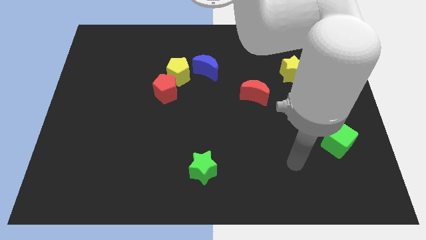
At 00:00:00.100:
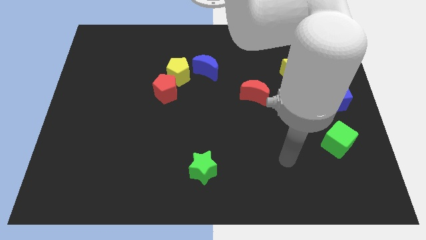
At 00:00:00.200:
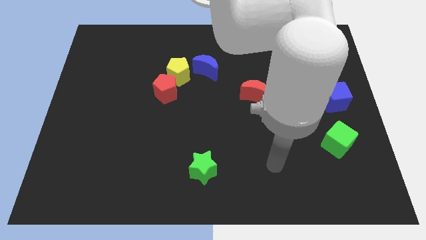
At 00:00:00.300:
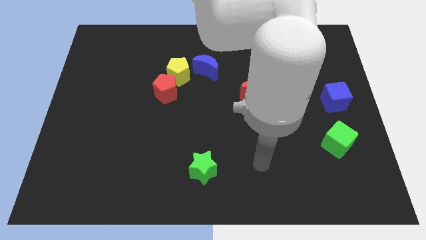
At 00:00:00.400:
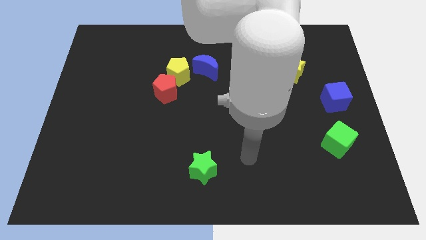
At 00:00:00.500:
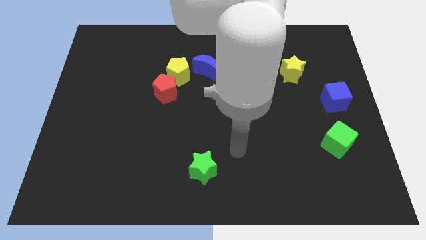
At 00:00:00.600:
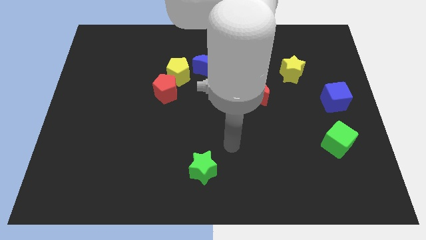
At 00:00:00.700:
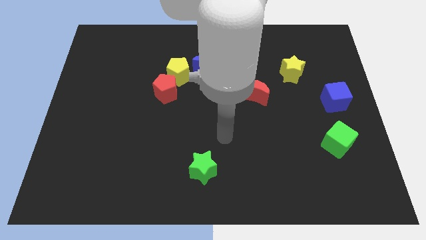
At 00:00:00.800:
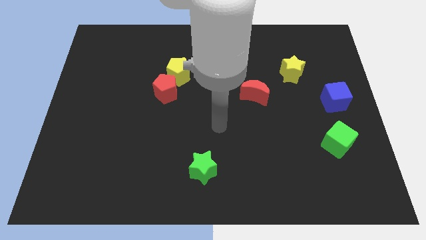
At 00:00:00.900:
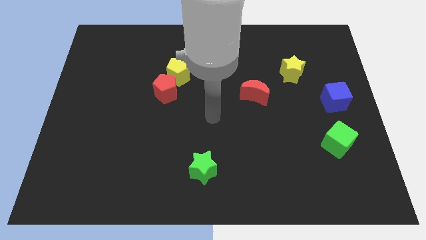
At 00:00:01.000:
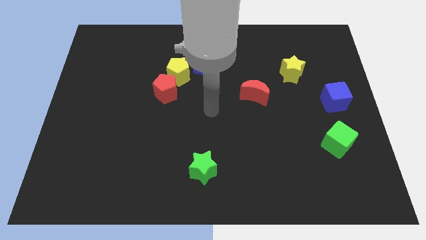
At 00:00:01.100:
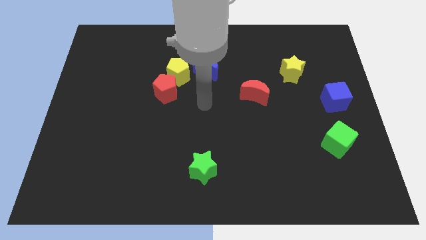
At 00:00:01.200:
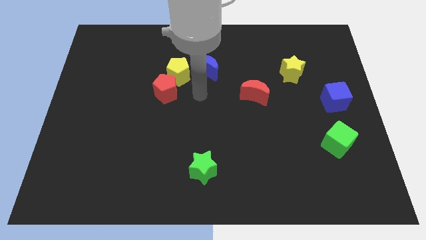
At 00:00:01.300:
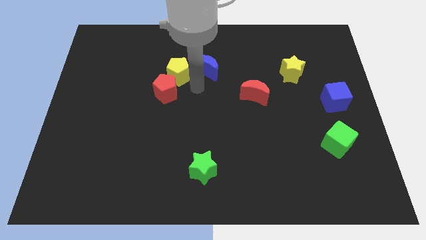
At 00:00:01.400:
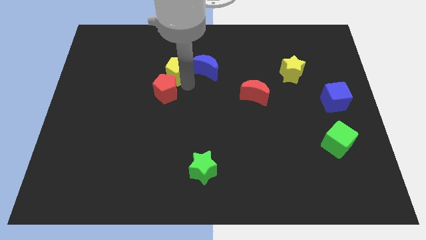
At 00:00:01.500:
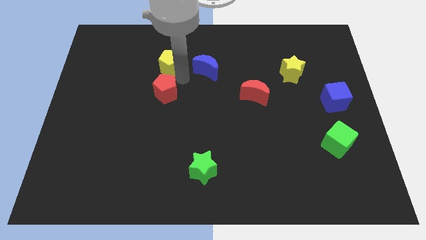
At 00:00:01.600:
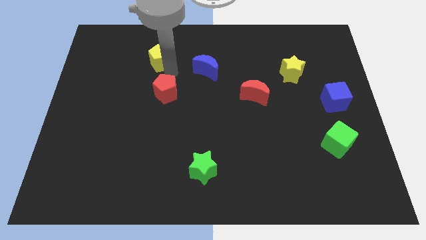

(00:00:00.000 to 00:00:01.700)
separate the red pentagon from the yellow pentagon

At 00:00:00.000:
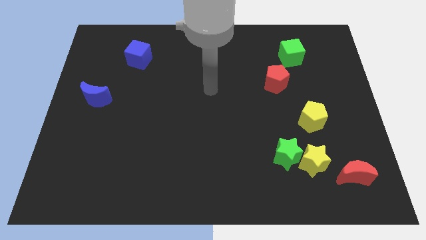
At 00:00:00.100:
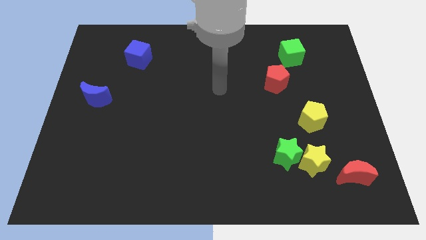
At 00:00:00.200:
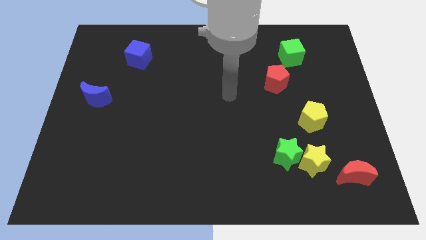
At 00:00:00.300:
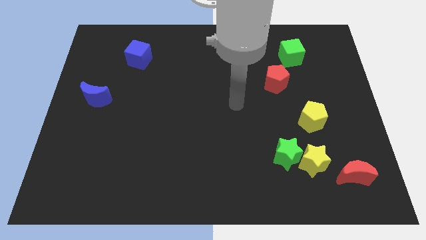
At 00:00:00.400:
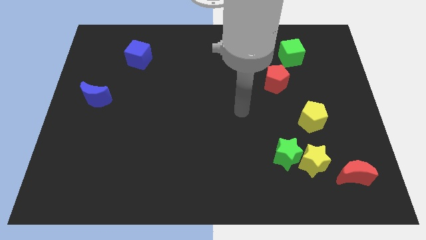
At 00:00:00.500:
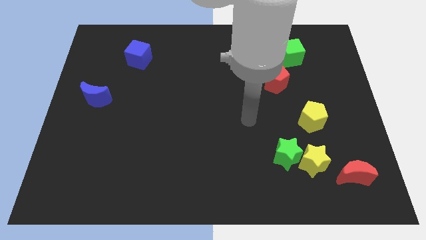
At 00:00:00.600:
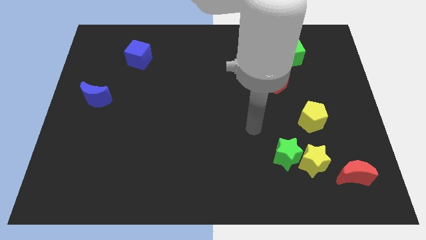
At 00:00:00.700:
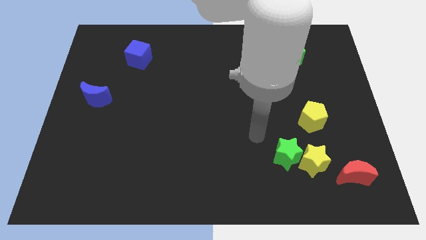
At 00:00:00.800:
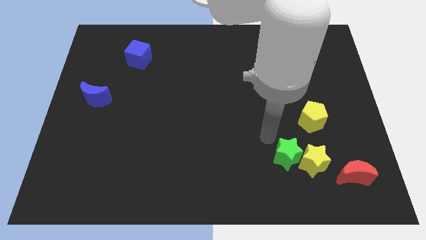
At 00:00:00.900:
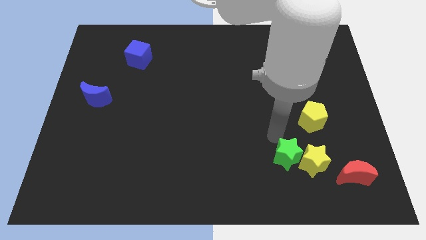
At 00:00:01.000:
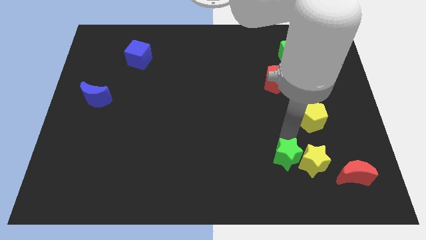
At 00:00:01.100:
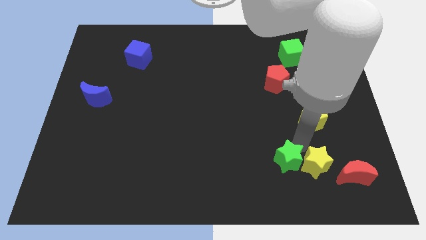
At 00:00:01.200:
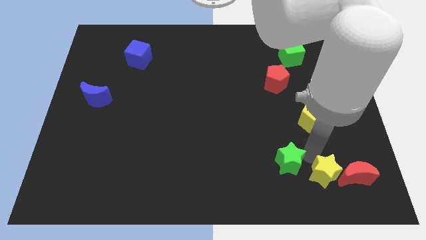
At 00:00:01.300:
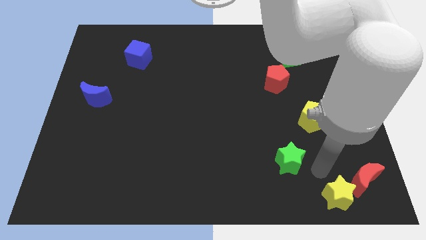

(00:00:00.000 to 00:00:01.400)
separate the green star from the yellow star

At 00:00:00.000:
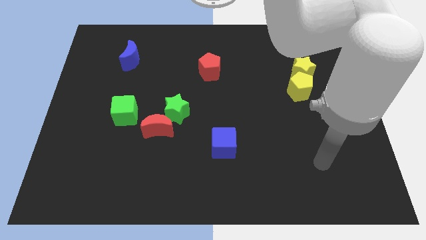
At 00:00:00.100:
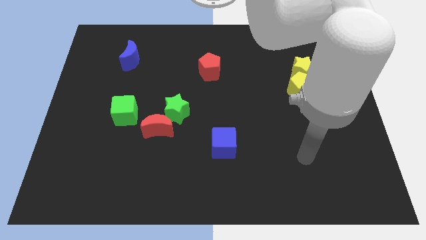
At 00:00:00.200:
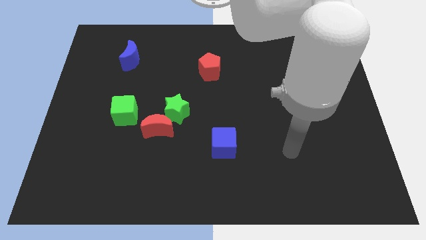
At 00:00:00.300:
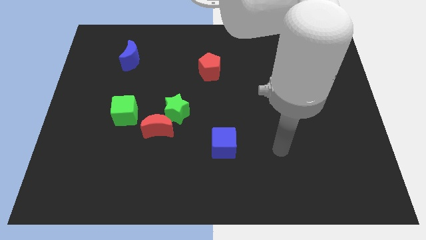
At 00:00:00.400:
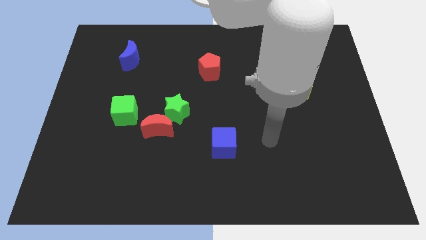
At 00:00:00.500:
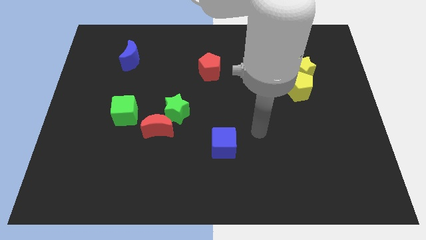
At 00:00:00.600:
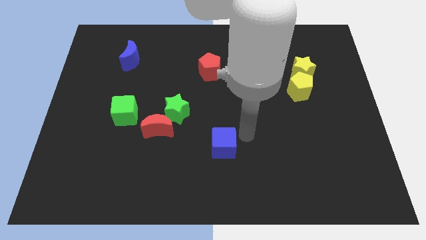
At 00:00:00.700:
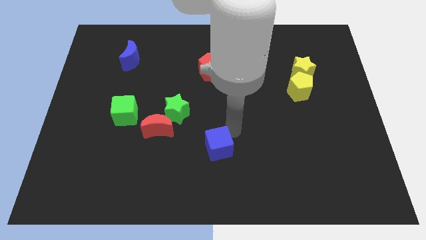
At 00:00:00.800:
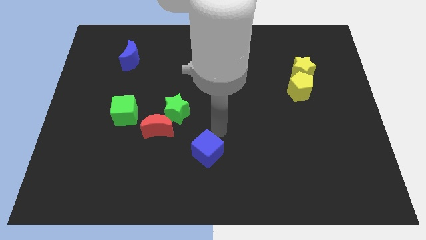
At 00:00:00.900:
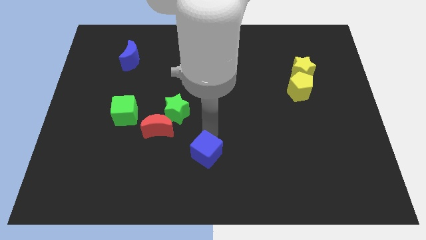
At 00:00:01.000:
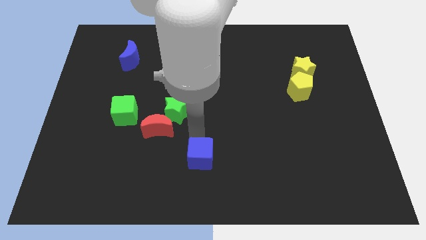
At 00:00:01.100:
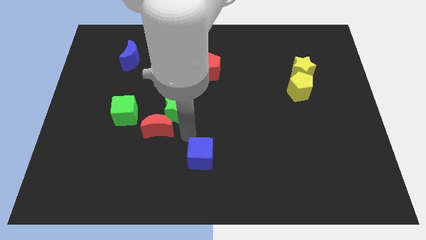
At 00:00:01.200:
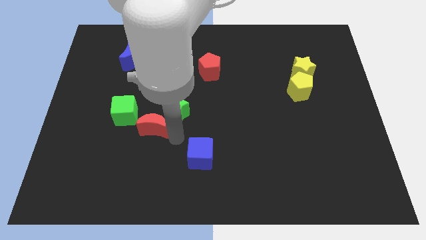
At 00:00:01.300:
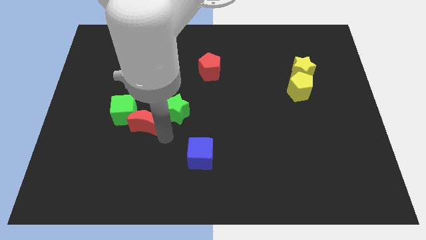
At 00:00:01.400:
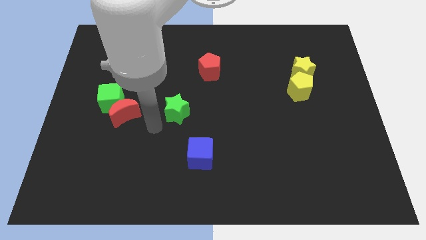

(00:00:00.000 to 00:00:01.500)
separate the green star from the red moon

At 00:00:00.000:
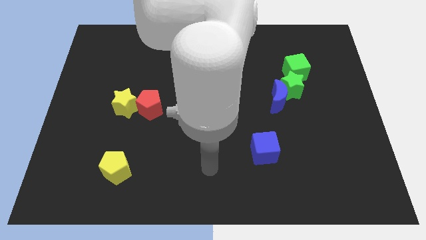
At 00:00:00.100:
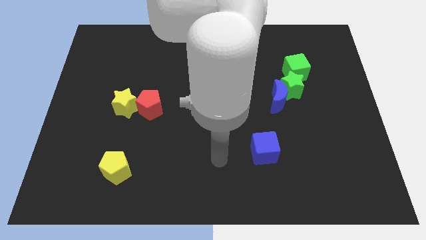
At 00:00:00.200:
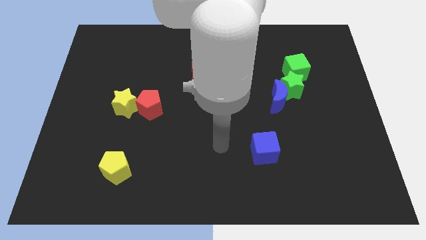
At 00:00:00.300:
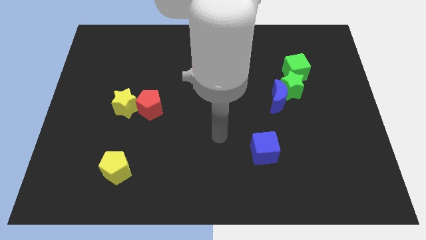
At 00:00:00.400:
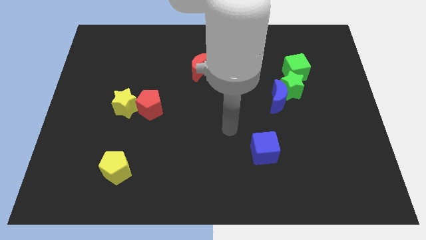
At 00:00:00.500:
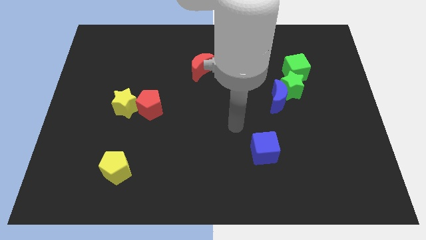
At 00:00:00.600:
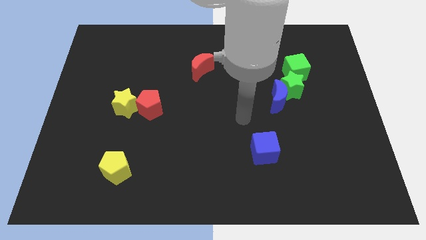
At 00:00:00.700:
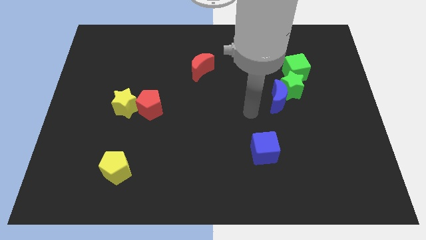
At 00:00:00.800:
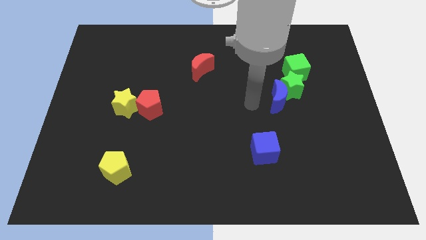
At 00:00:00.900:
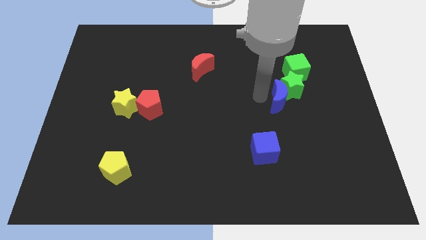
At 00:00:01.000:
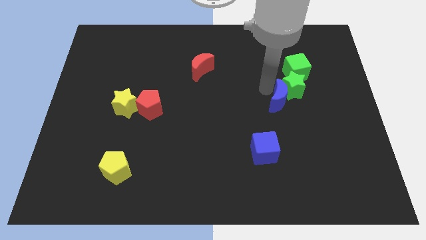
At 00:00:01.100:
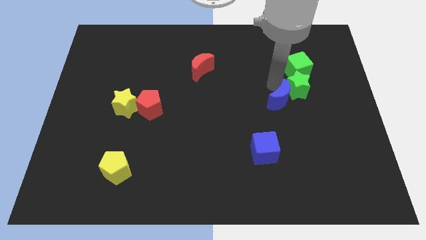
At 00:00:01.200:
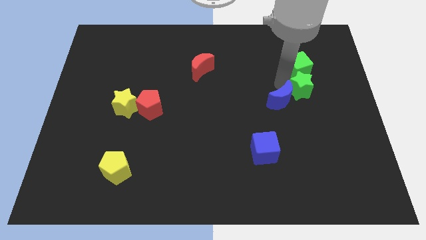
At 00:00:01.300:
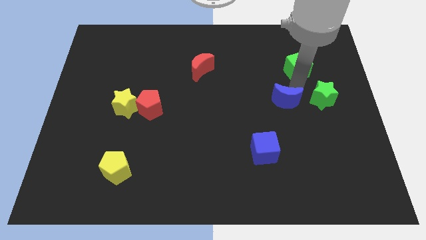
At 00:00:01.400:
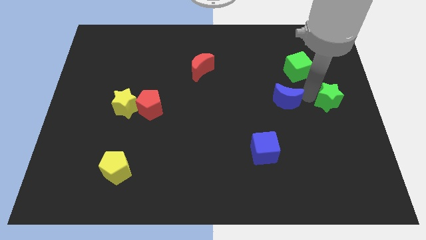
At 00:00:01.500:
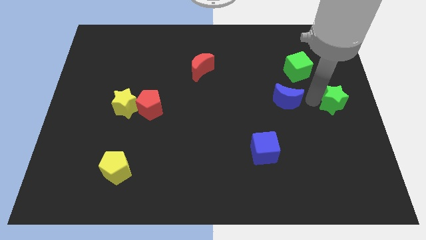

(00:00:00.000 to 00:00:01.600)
separate the blue moon from the green star

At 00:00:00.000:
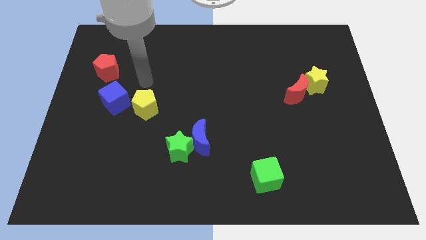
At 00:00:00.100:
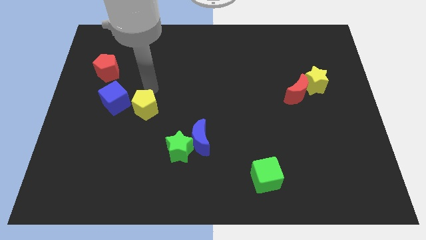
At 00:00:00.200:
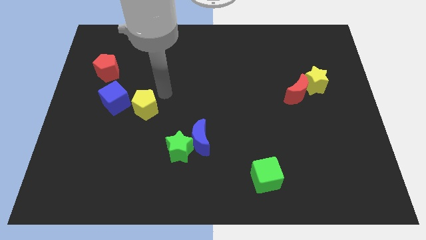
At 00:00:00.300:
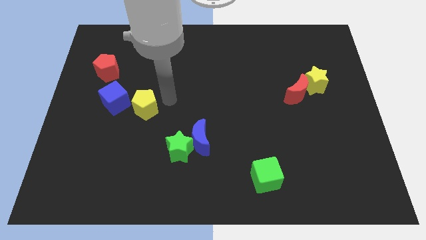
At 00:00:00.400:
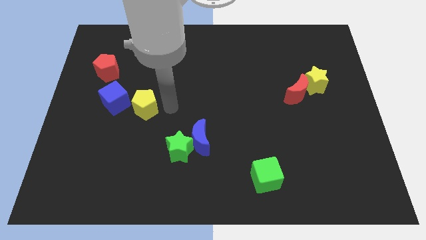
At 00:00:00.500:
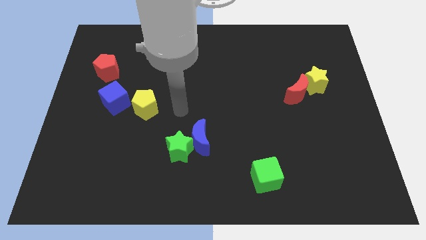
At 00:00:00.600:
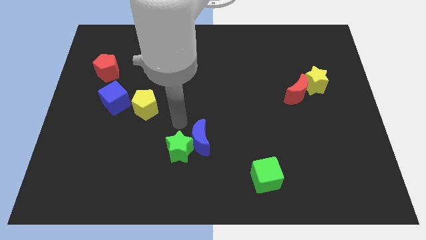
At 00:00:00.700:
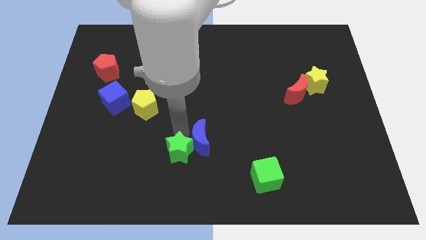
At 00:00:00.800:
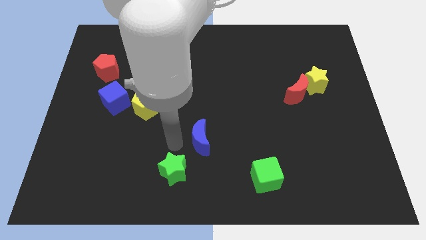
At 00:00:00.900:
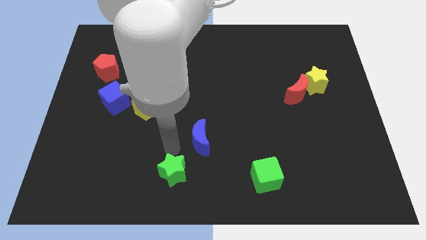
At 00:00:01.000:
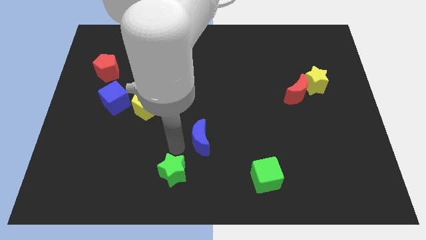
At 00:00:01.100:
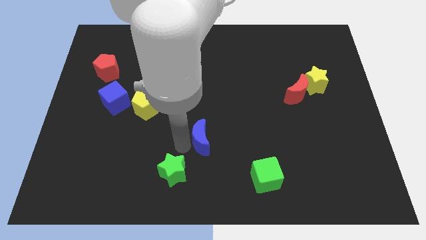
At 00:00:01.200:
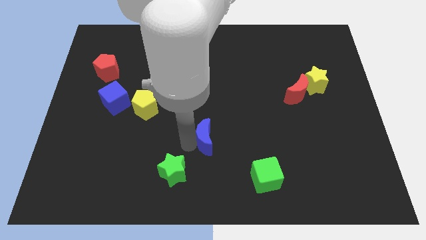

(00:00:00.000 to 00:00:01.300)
move the blue moon away from the green star

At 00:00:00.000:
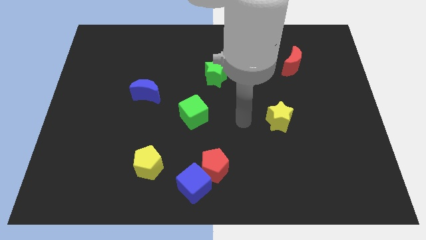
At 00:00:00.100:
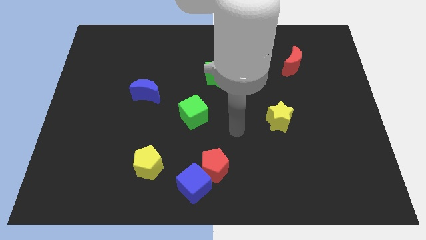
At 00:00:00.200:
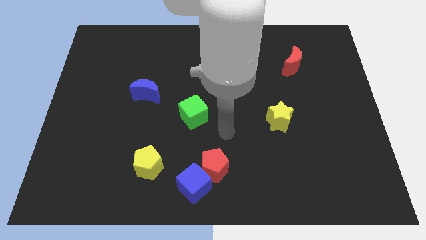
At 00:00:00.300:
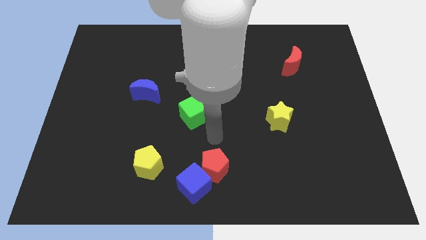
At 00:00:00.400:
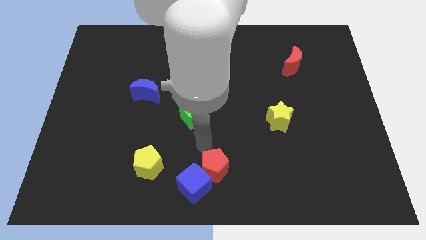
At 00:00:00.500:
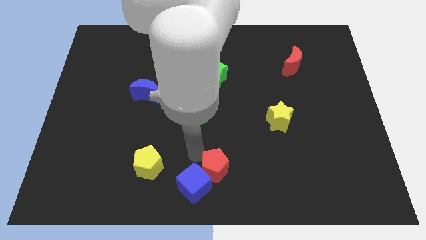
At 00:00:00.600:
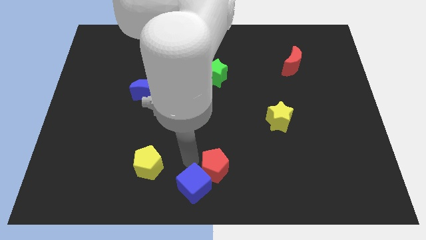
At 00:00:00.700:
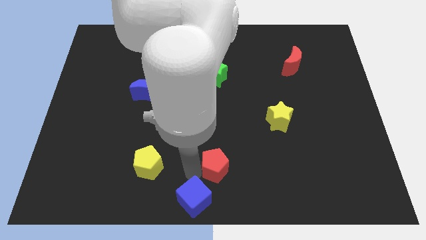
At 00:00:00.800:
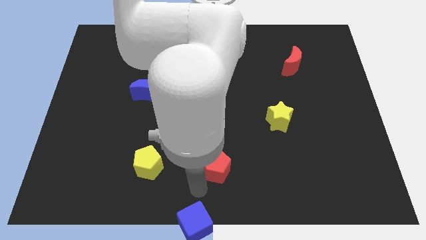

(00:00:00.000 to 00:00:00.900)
separate the red pentagon from the blue cube

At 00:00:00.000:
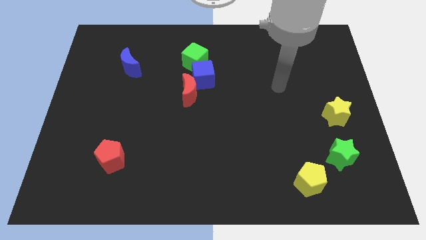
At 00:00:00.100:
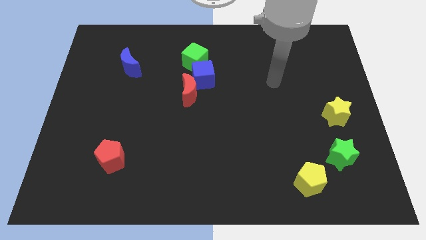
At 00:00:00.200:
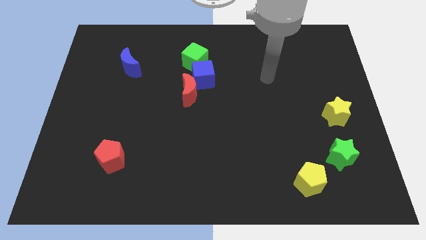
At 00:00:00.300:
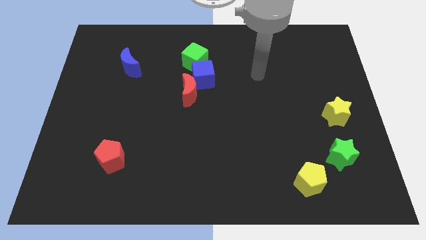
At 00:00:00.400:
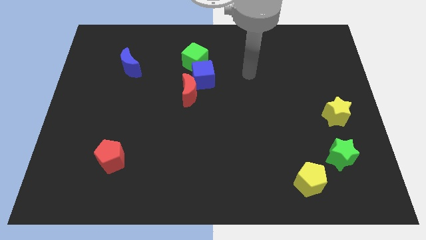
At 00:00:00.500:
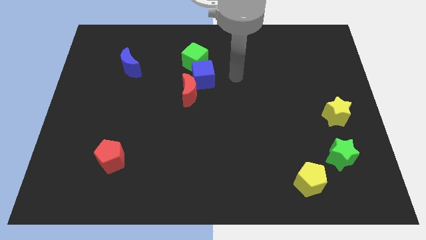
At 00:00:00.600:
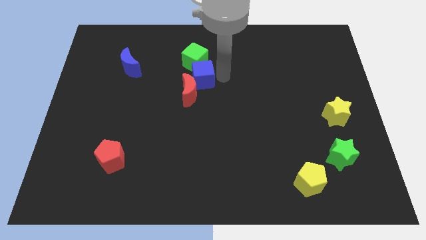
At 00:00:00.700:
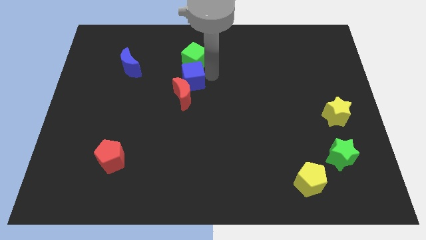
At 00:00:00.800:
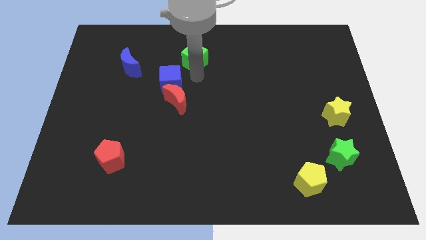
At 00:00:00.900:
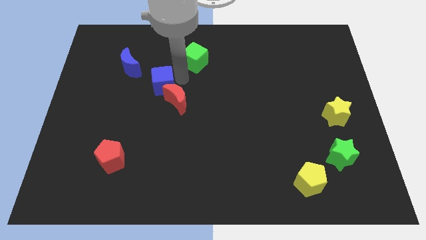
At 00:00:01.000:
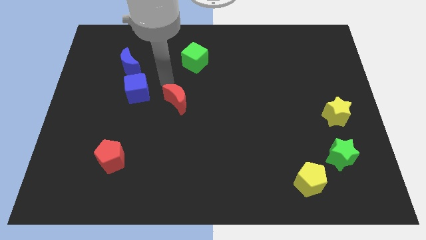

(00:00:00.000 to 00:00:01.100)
pull the red moon apart from the blue cube
